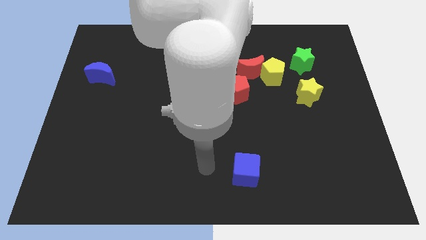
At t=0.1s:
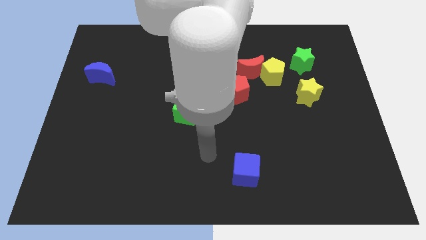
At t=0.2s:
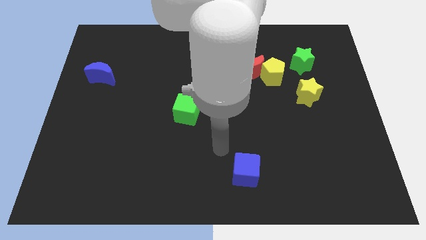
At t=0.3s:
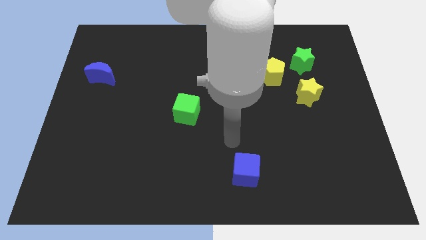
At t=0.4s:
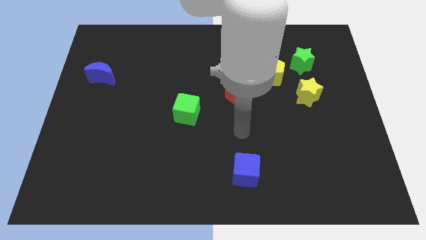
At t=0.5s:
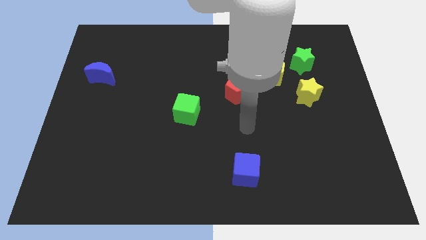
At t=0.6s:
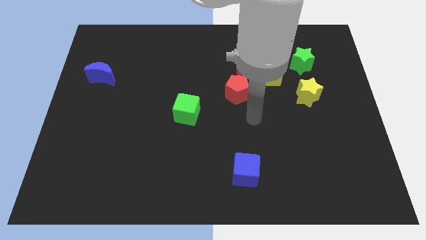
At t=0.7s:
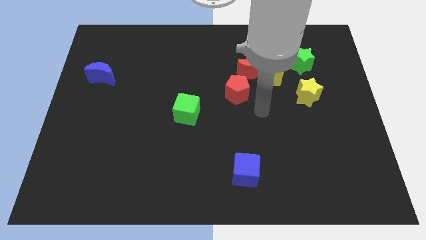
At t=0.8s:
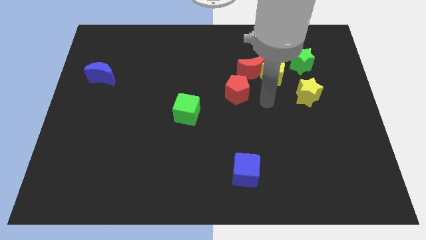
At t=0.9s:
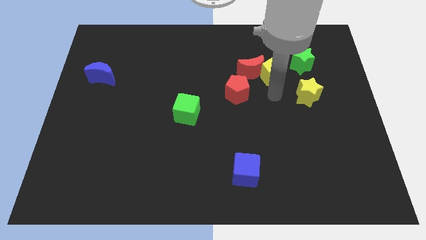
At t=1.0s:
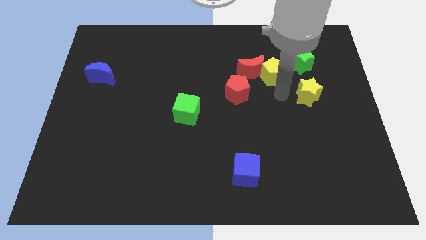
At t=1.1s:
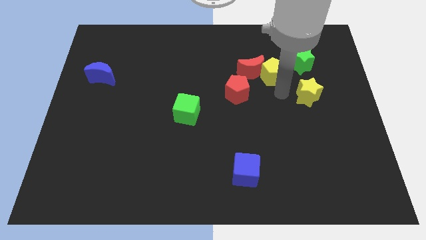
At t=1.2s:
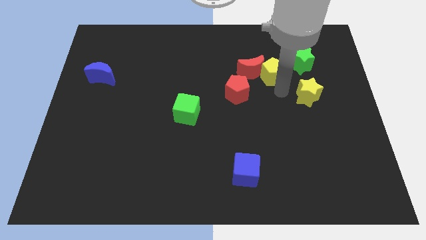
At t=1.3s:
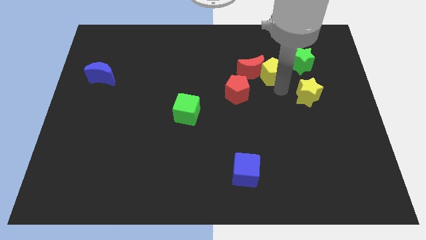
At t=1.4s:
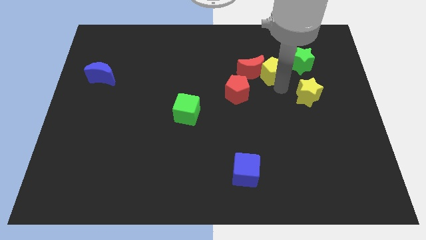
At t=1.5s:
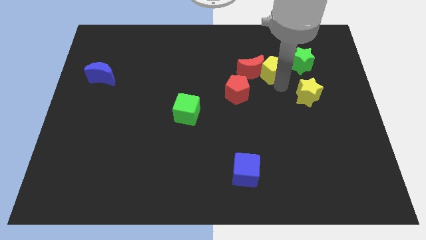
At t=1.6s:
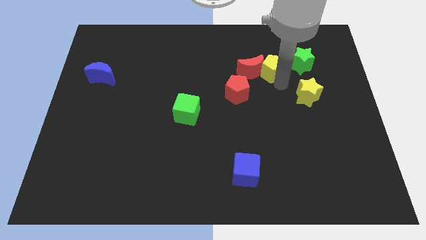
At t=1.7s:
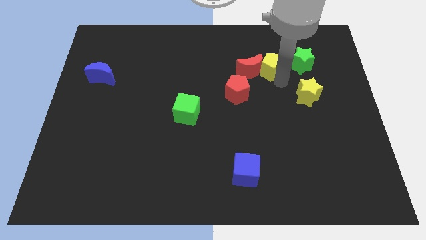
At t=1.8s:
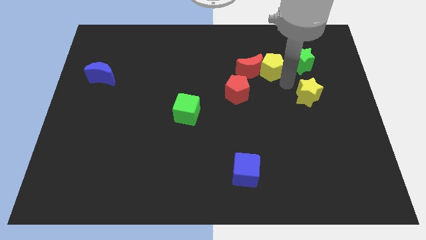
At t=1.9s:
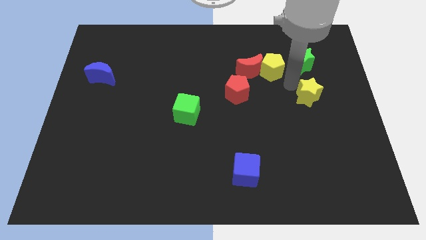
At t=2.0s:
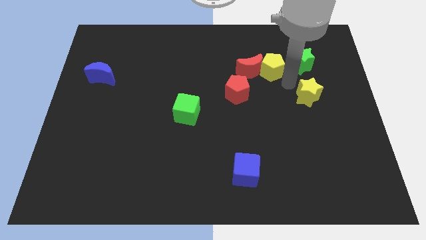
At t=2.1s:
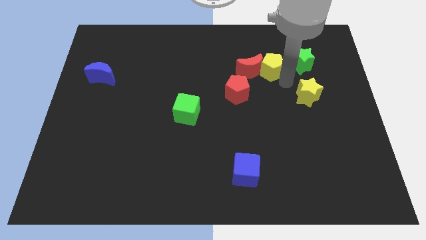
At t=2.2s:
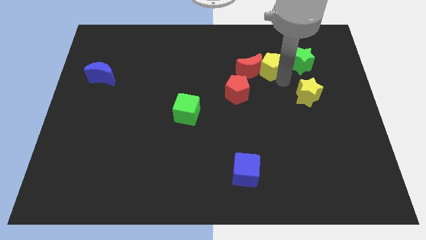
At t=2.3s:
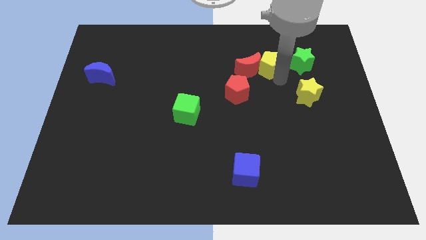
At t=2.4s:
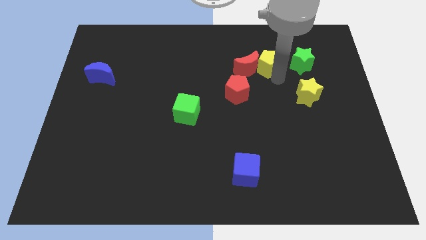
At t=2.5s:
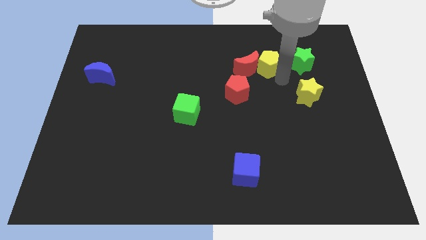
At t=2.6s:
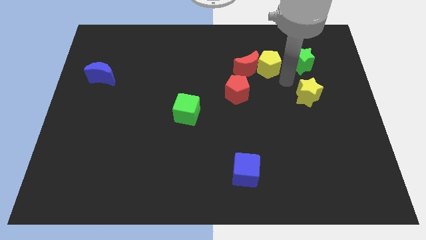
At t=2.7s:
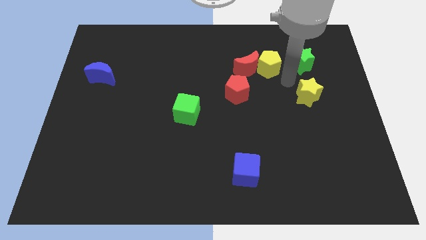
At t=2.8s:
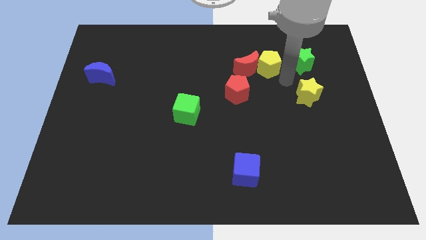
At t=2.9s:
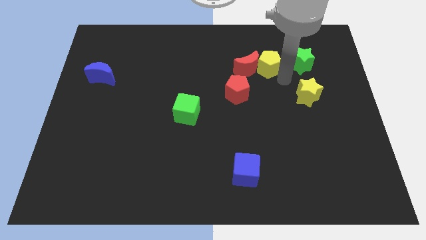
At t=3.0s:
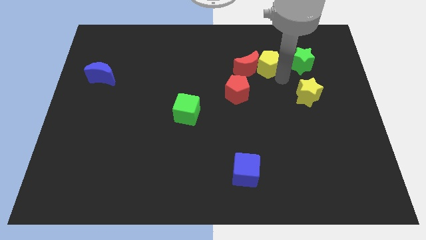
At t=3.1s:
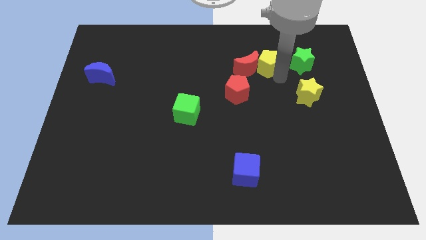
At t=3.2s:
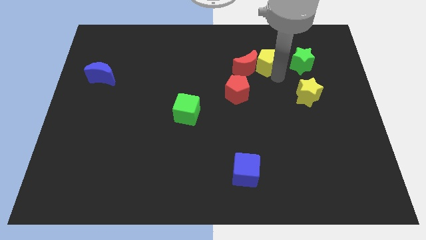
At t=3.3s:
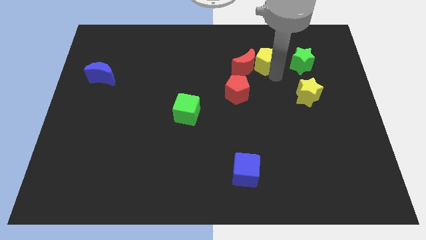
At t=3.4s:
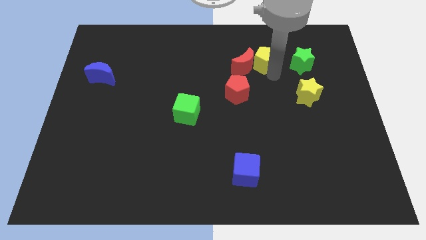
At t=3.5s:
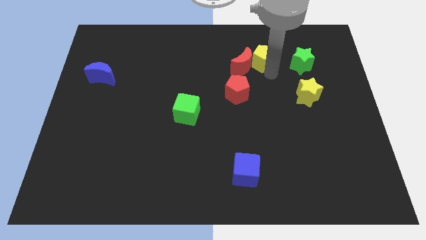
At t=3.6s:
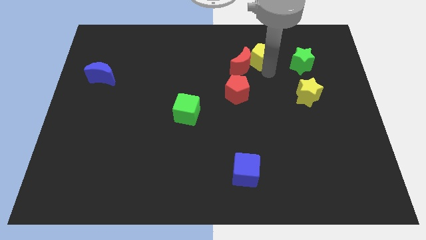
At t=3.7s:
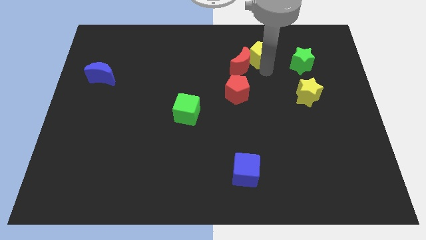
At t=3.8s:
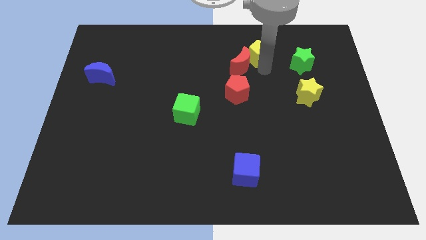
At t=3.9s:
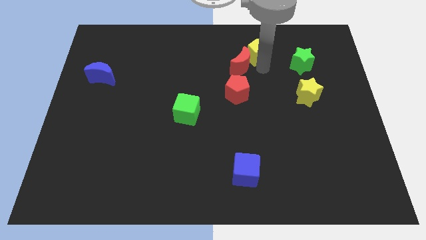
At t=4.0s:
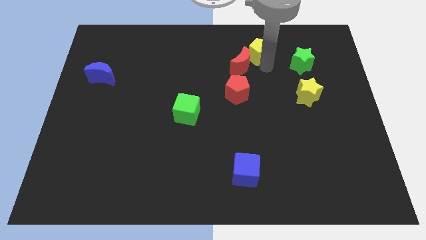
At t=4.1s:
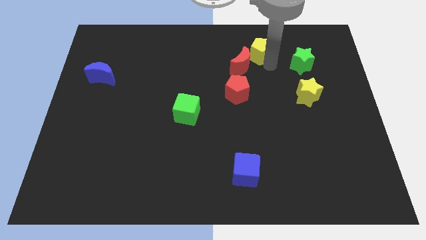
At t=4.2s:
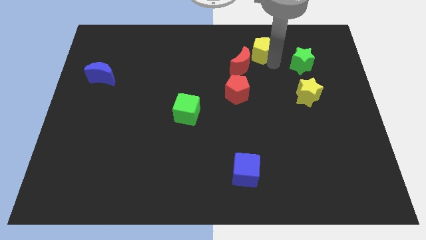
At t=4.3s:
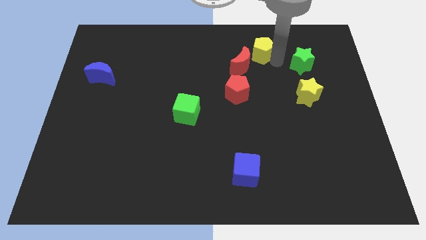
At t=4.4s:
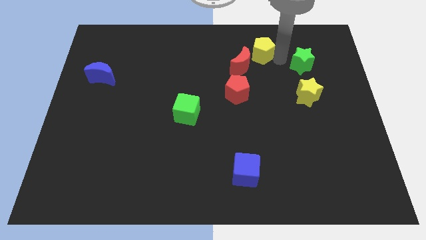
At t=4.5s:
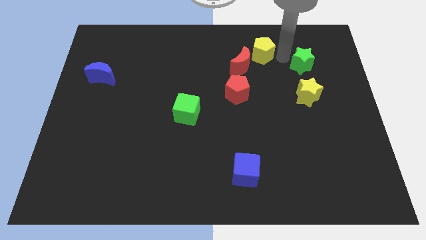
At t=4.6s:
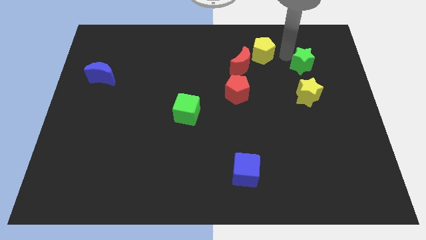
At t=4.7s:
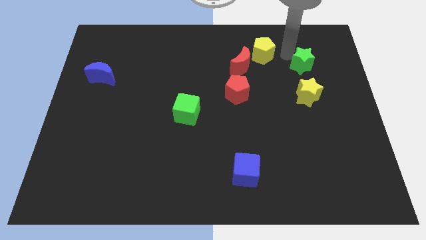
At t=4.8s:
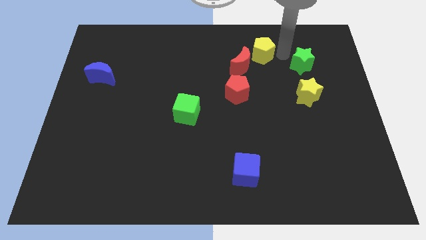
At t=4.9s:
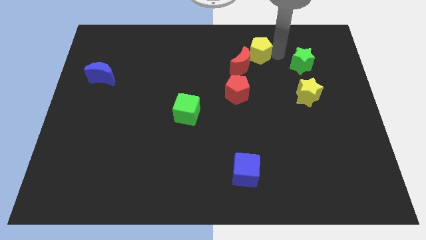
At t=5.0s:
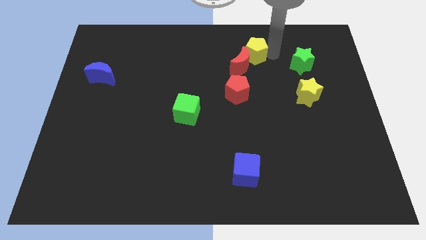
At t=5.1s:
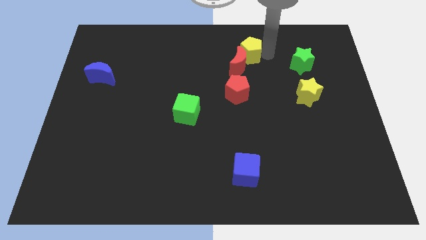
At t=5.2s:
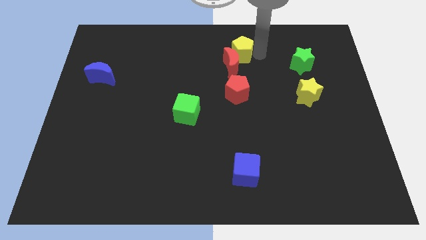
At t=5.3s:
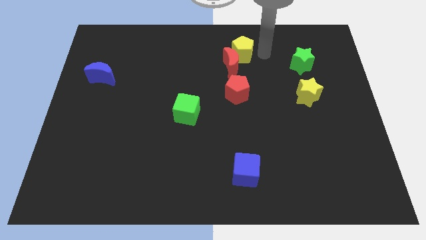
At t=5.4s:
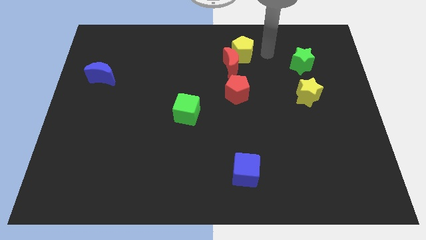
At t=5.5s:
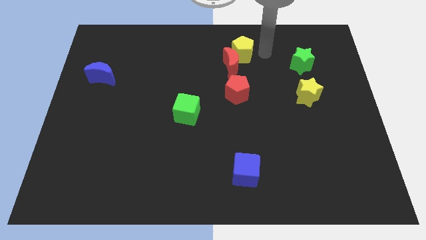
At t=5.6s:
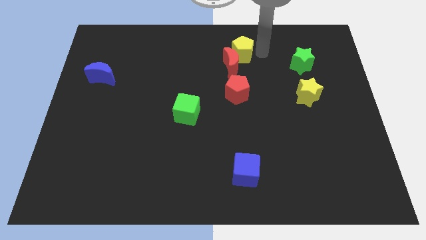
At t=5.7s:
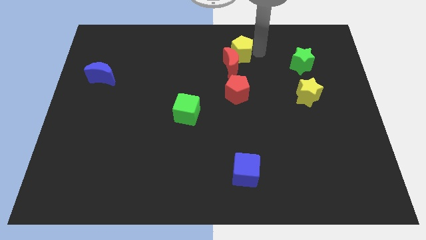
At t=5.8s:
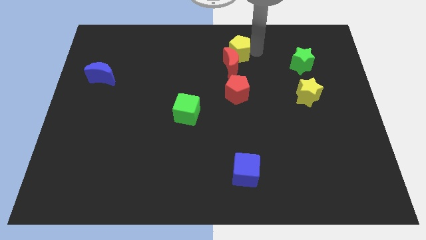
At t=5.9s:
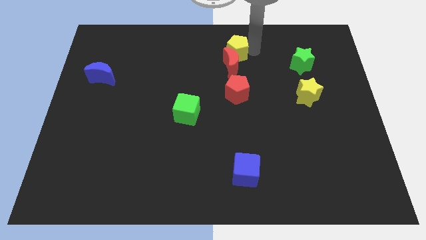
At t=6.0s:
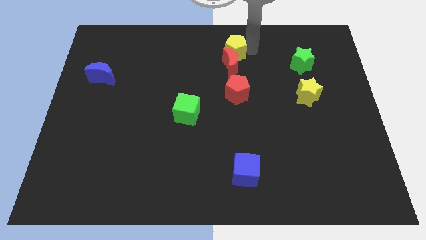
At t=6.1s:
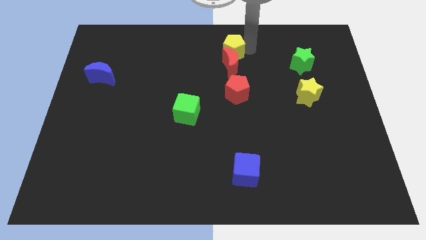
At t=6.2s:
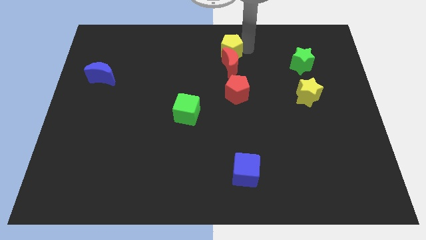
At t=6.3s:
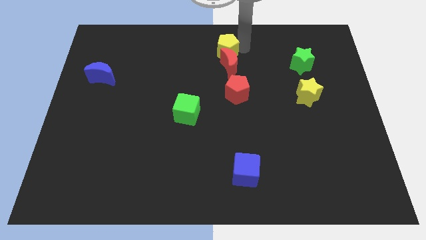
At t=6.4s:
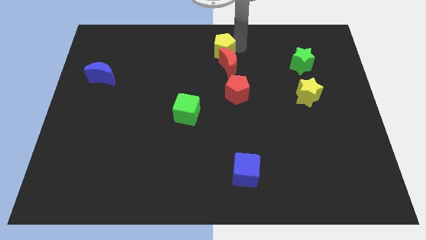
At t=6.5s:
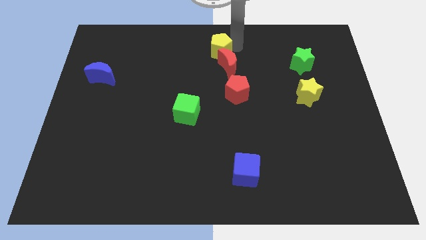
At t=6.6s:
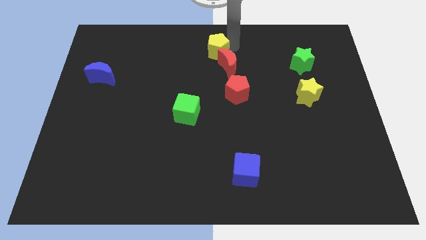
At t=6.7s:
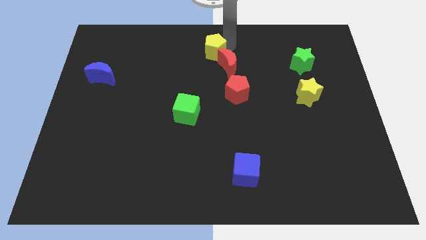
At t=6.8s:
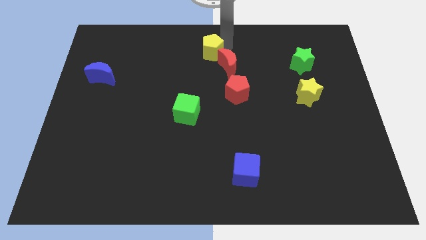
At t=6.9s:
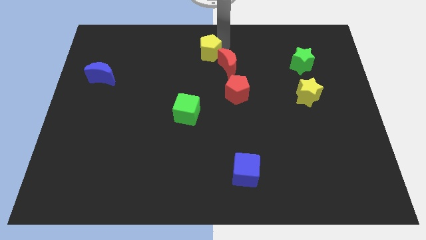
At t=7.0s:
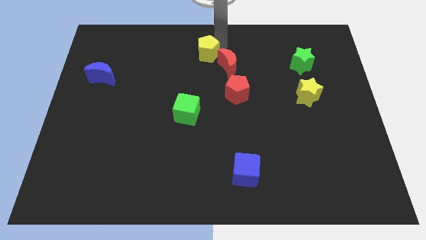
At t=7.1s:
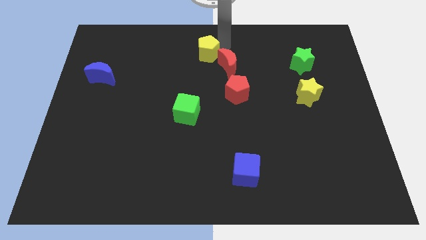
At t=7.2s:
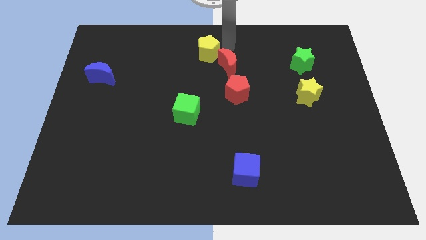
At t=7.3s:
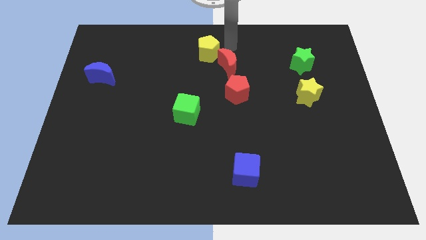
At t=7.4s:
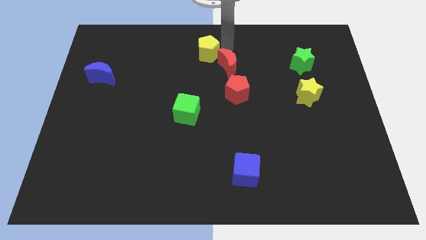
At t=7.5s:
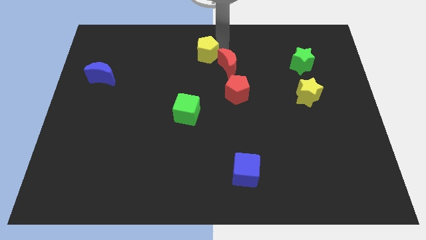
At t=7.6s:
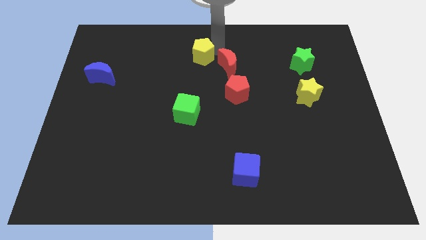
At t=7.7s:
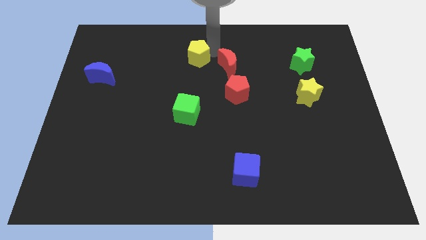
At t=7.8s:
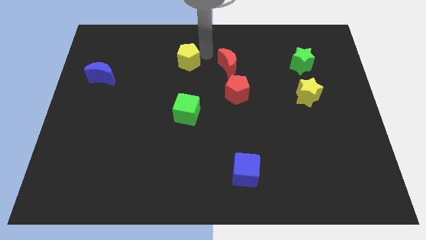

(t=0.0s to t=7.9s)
slide the yellow pentagon to the left

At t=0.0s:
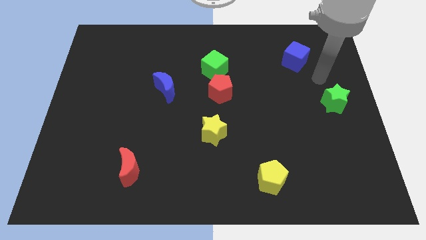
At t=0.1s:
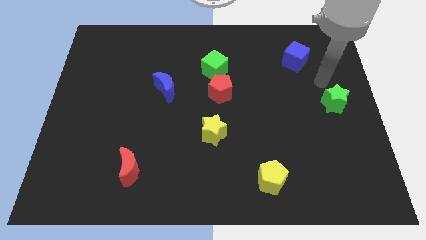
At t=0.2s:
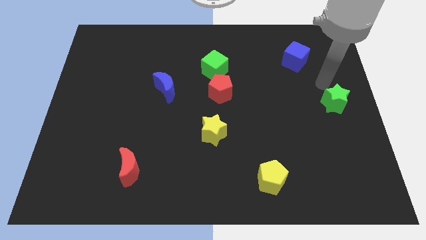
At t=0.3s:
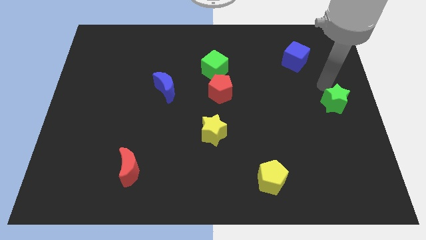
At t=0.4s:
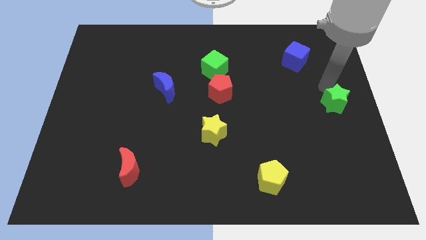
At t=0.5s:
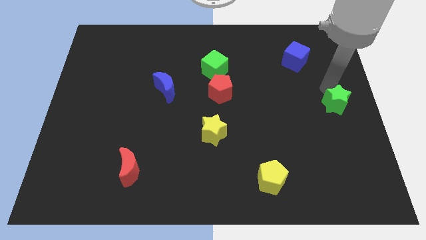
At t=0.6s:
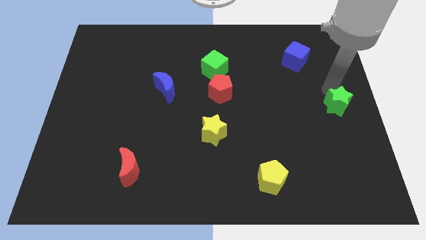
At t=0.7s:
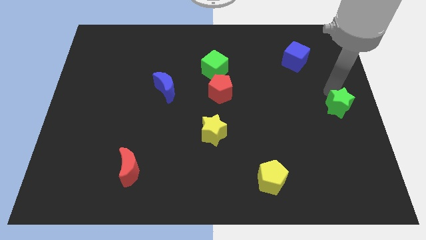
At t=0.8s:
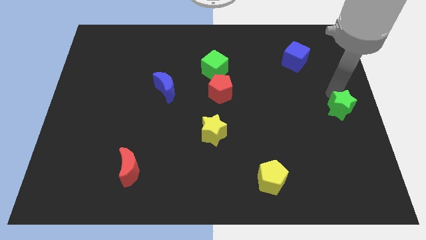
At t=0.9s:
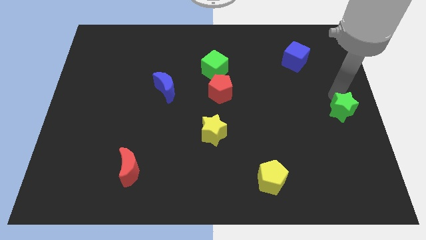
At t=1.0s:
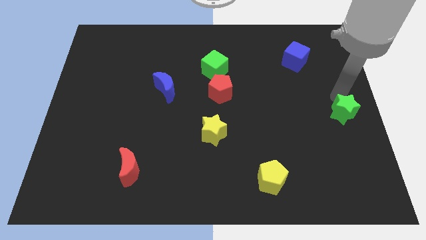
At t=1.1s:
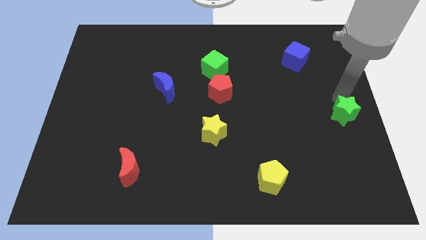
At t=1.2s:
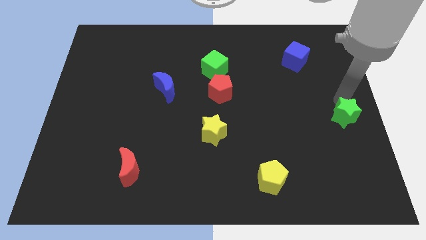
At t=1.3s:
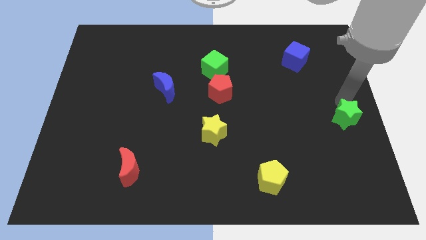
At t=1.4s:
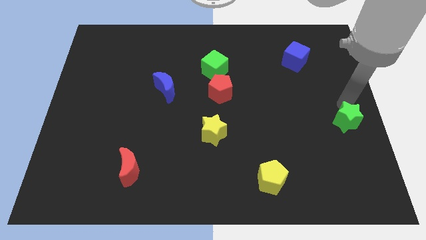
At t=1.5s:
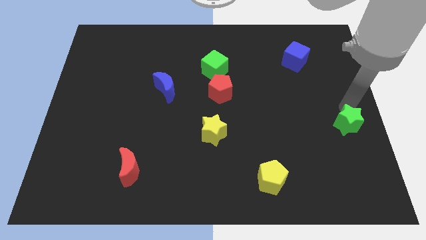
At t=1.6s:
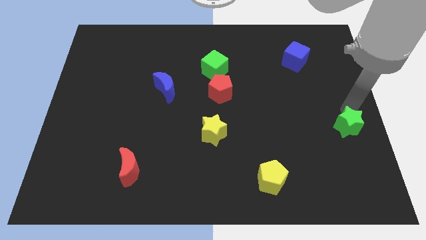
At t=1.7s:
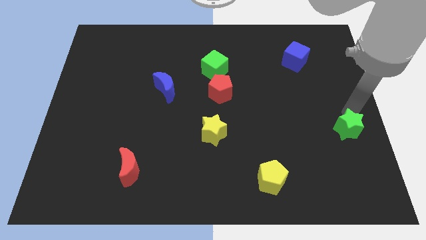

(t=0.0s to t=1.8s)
push the green star somewhat down
